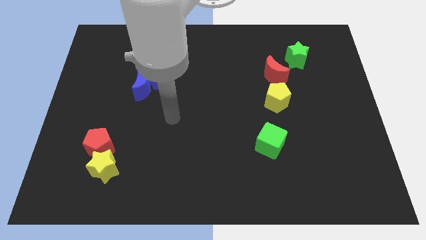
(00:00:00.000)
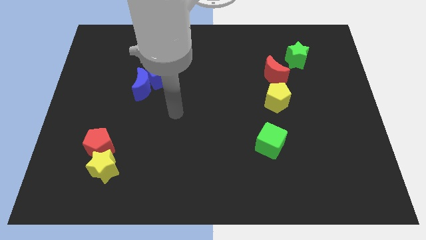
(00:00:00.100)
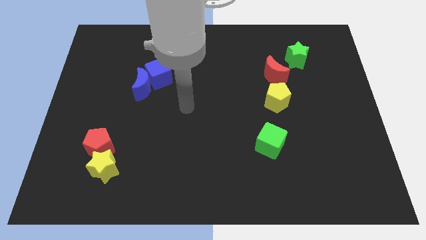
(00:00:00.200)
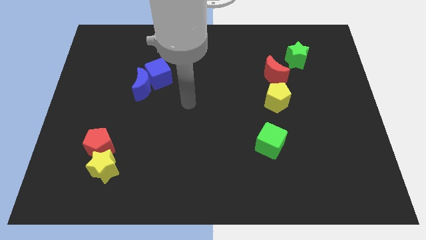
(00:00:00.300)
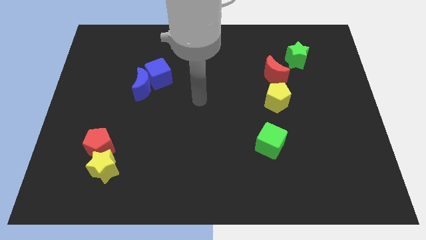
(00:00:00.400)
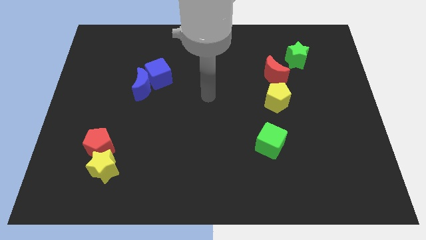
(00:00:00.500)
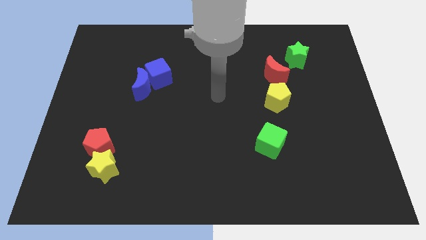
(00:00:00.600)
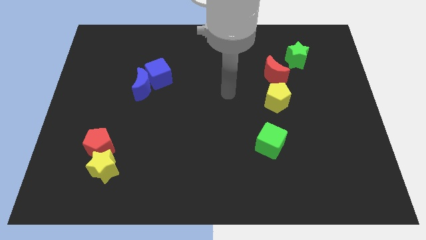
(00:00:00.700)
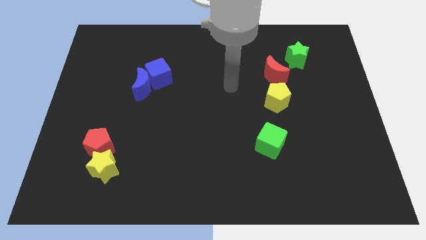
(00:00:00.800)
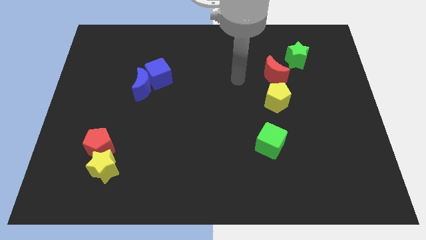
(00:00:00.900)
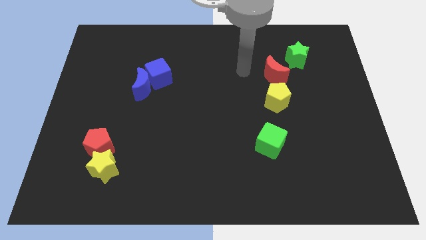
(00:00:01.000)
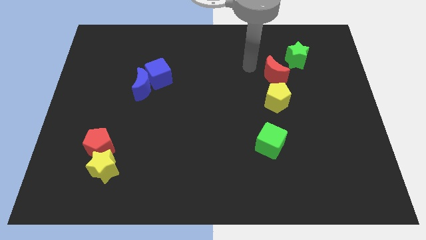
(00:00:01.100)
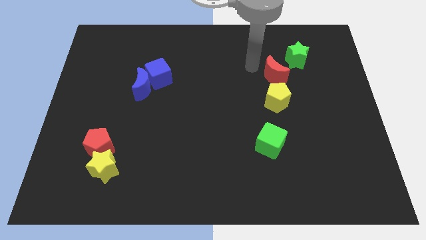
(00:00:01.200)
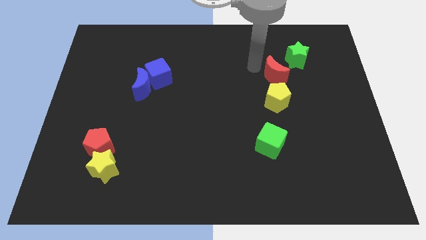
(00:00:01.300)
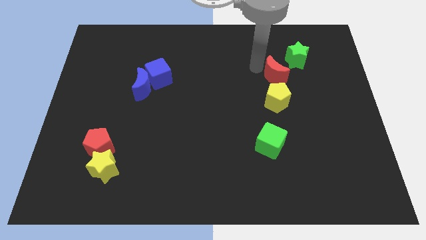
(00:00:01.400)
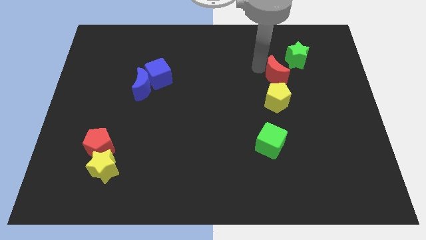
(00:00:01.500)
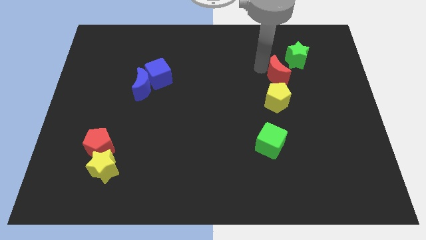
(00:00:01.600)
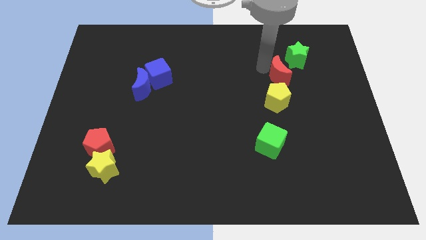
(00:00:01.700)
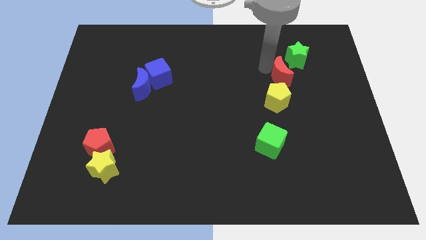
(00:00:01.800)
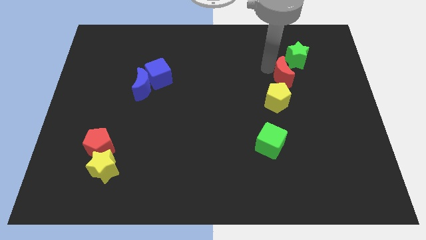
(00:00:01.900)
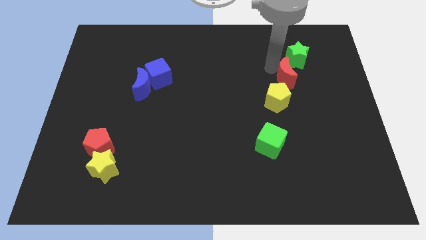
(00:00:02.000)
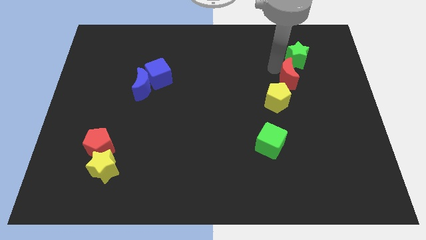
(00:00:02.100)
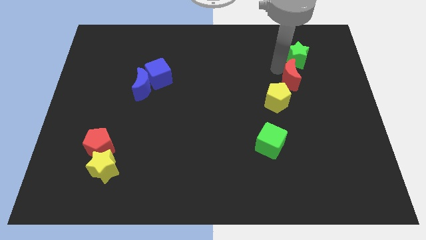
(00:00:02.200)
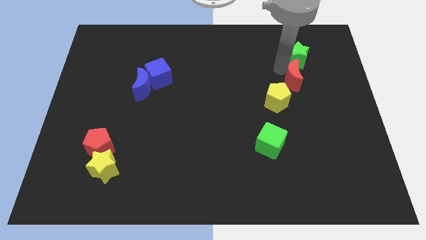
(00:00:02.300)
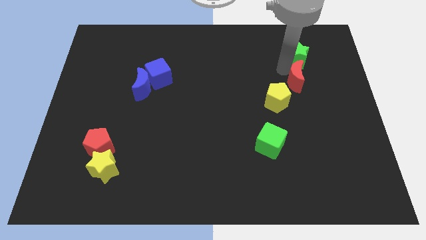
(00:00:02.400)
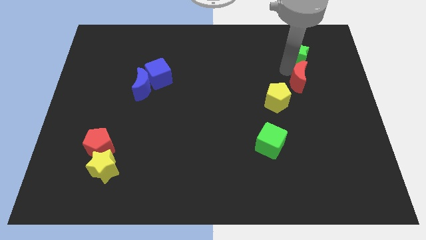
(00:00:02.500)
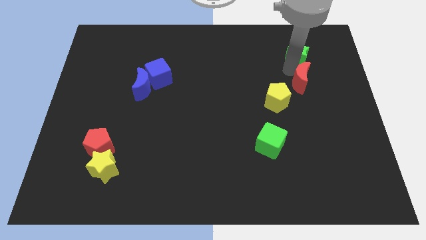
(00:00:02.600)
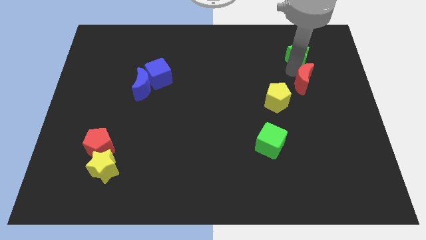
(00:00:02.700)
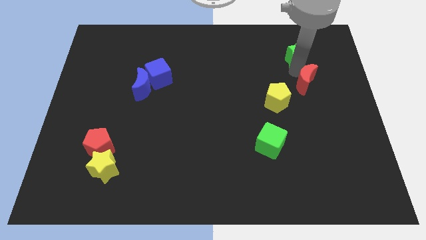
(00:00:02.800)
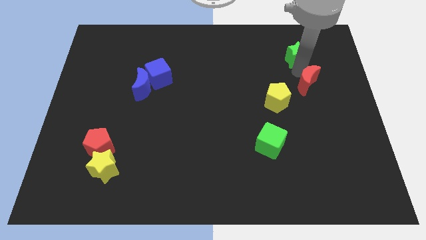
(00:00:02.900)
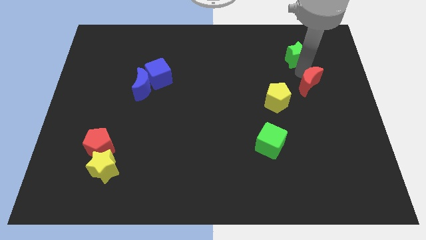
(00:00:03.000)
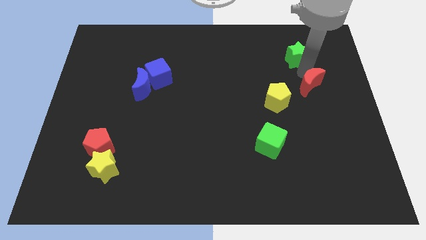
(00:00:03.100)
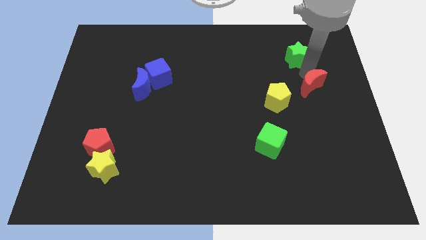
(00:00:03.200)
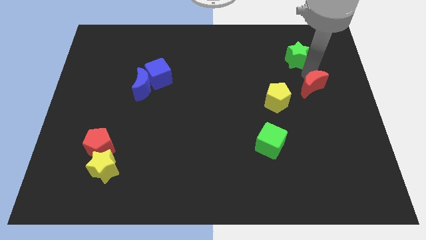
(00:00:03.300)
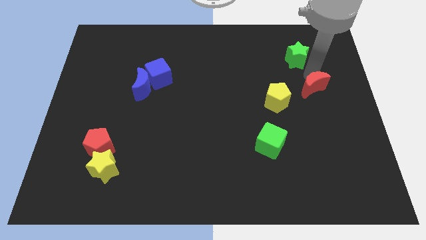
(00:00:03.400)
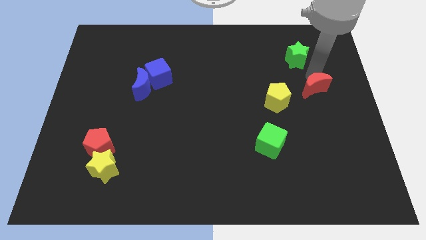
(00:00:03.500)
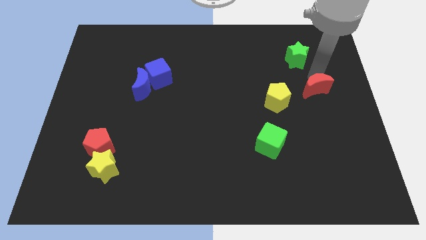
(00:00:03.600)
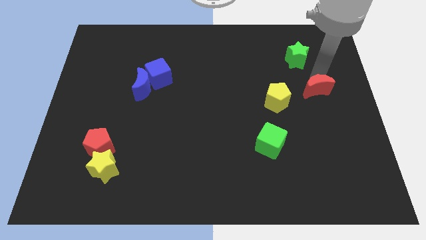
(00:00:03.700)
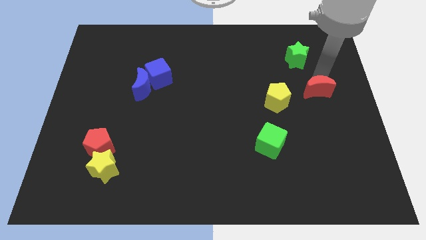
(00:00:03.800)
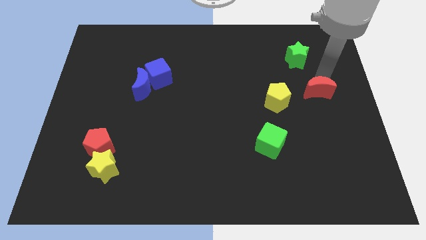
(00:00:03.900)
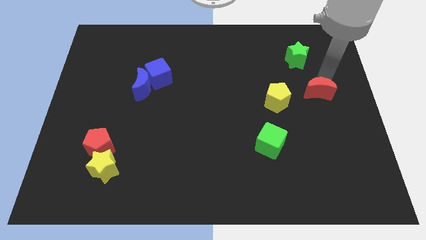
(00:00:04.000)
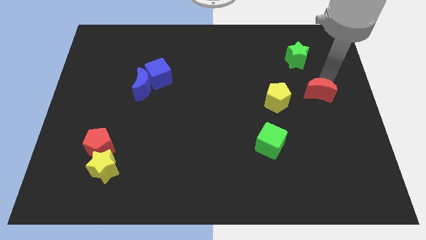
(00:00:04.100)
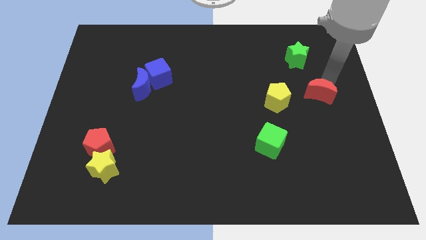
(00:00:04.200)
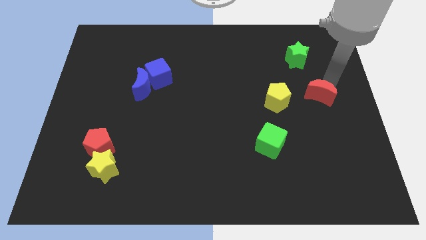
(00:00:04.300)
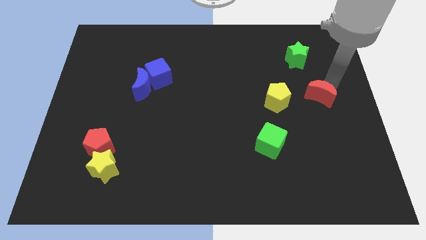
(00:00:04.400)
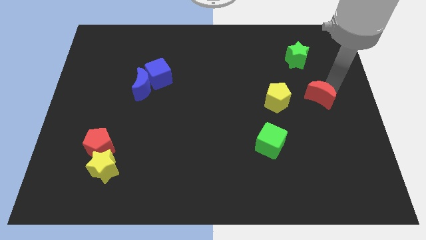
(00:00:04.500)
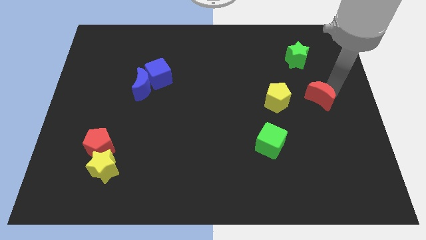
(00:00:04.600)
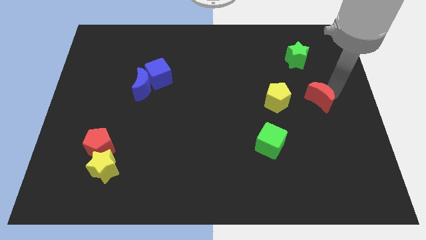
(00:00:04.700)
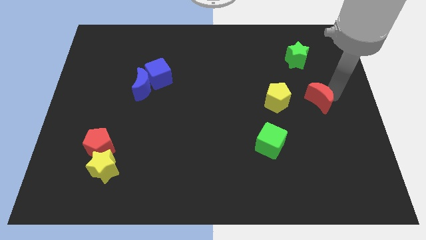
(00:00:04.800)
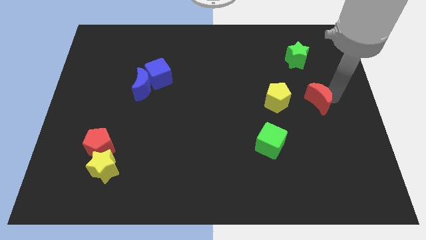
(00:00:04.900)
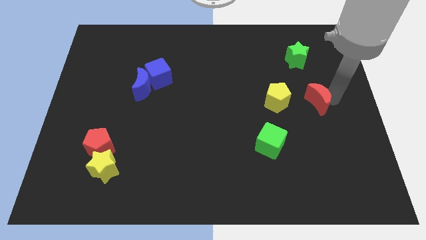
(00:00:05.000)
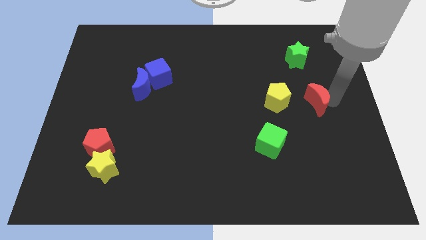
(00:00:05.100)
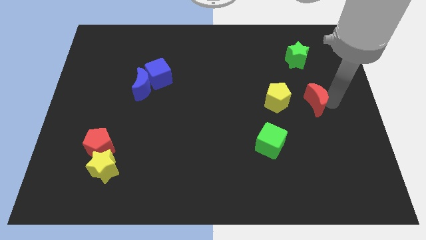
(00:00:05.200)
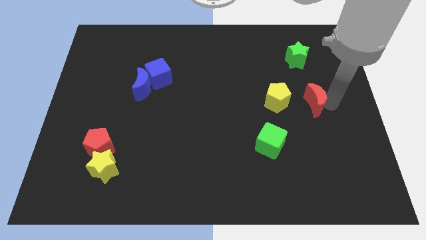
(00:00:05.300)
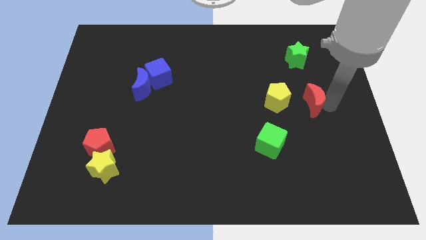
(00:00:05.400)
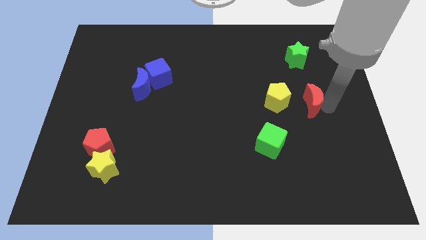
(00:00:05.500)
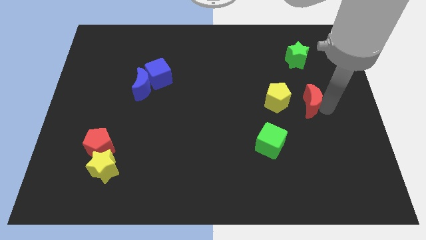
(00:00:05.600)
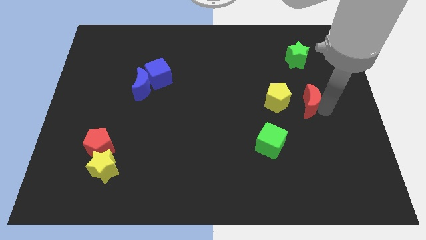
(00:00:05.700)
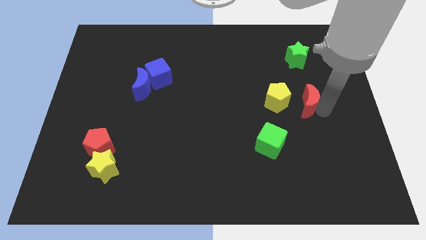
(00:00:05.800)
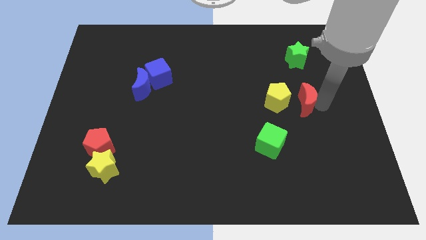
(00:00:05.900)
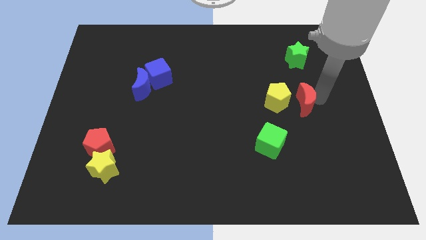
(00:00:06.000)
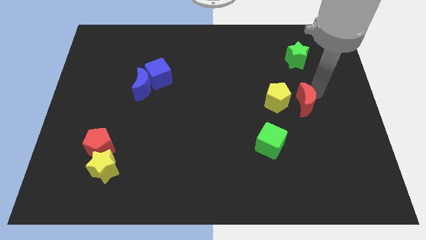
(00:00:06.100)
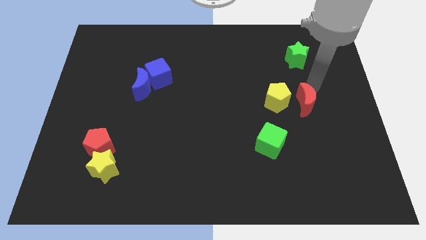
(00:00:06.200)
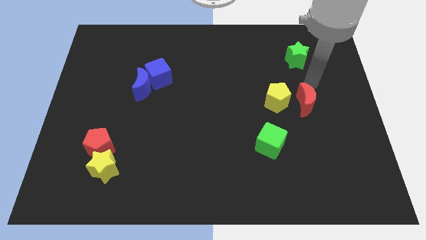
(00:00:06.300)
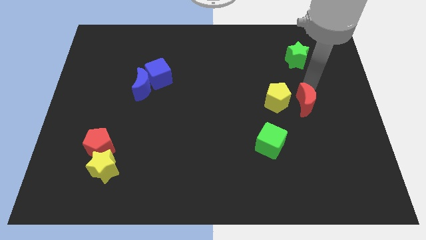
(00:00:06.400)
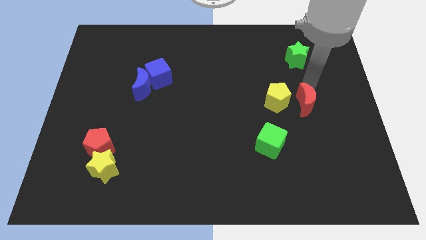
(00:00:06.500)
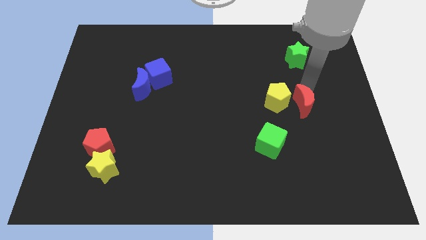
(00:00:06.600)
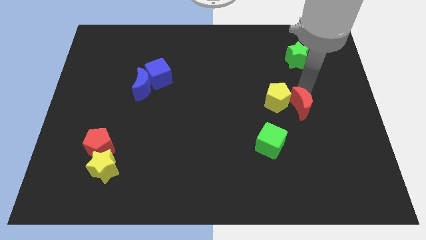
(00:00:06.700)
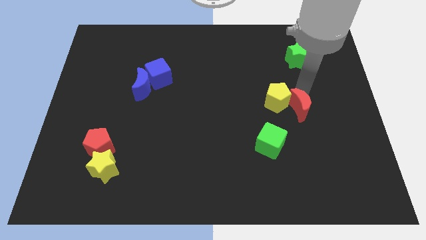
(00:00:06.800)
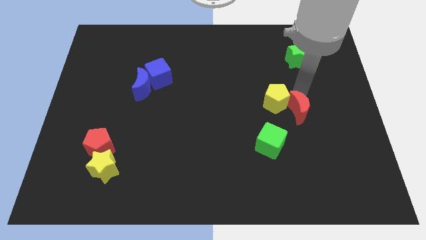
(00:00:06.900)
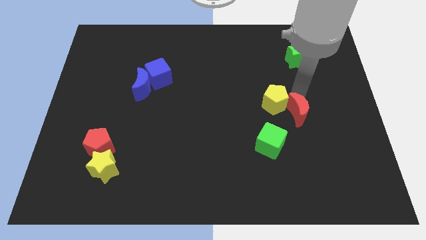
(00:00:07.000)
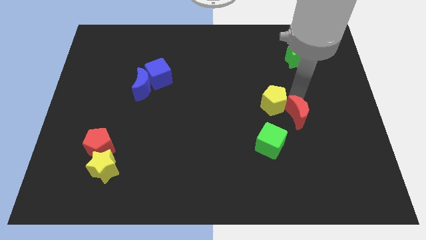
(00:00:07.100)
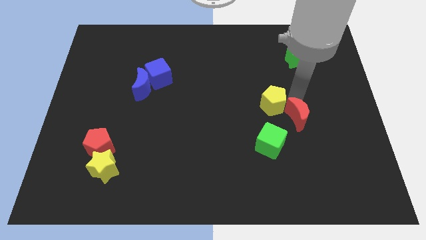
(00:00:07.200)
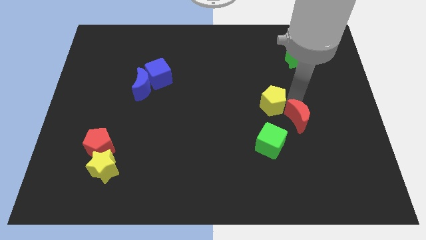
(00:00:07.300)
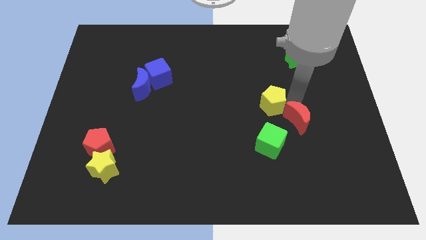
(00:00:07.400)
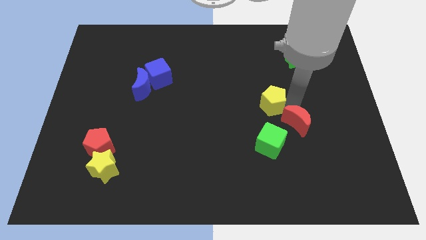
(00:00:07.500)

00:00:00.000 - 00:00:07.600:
put the red moon to the bottom side of the yellow pentagon

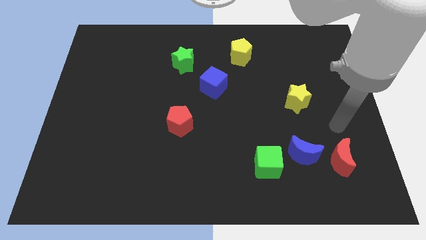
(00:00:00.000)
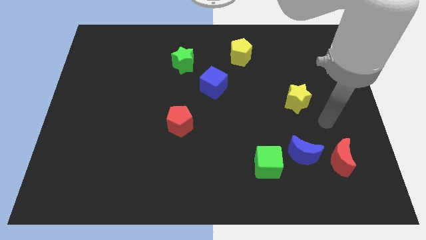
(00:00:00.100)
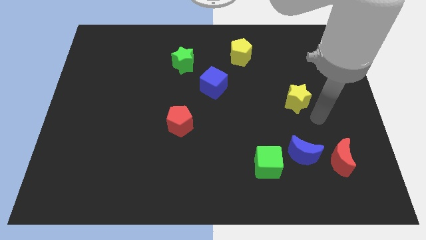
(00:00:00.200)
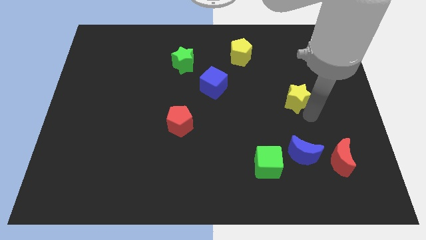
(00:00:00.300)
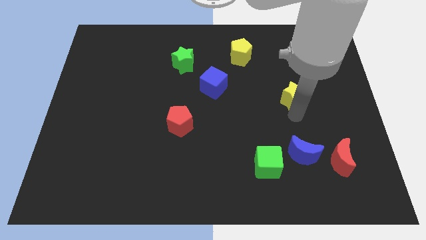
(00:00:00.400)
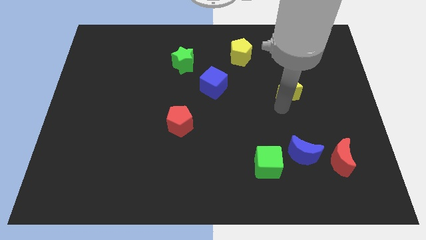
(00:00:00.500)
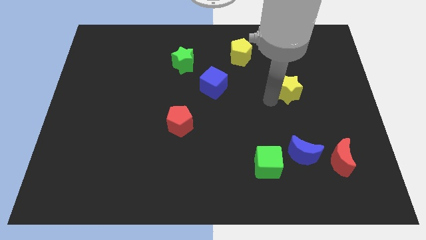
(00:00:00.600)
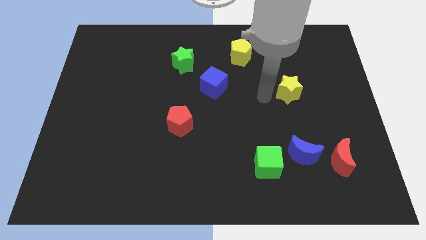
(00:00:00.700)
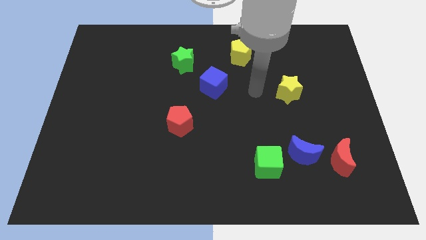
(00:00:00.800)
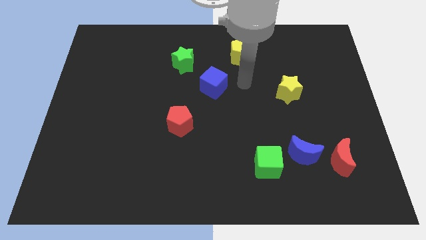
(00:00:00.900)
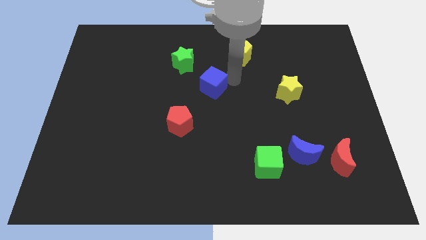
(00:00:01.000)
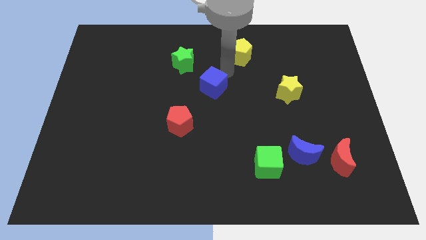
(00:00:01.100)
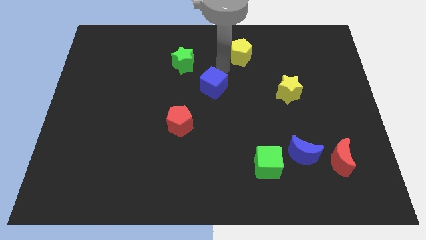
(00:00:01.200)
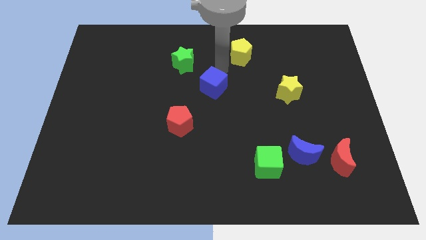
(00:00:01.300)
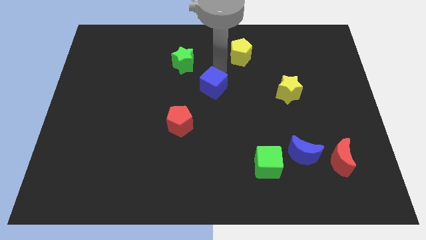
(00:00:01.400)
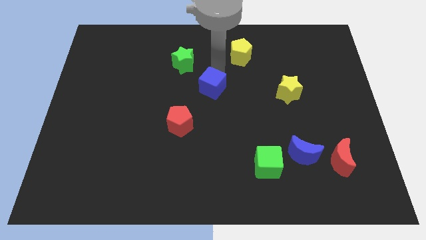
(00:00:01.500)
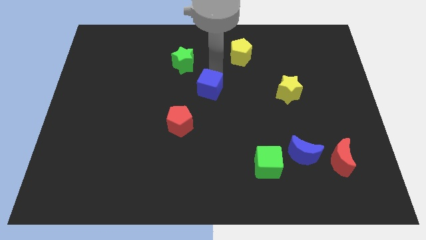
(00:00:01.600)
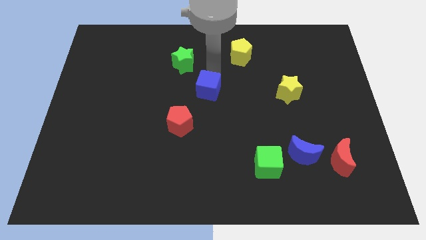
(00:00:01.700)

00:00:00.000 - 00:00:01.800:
move the blue cube to the top right of the red pentagon
